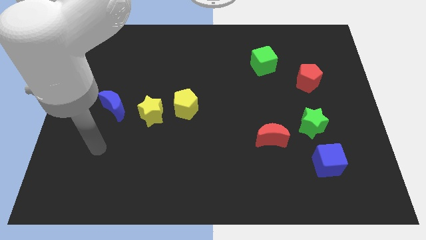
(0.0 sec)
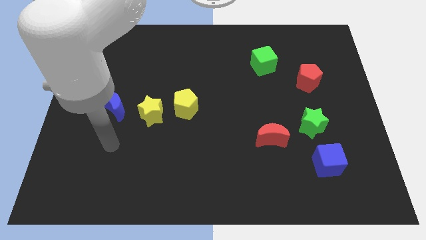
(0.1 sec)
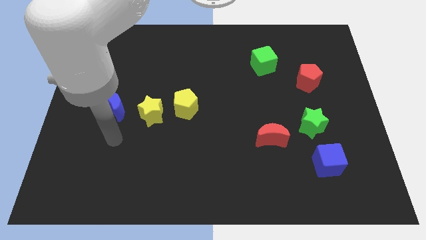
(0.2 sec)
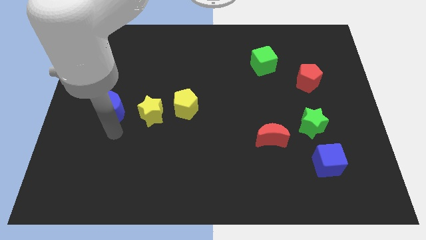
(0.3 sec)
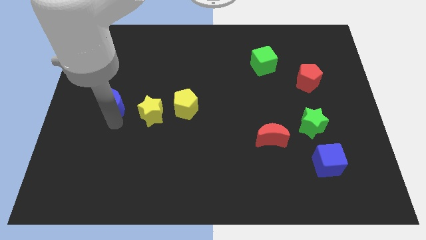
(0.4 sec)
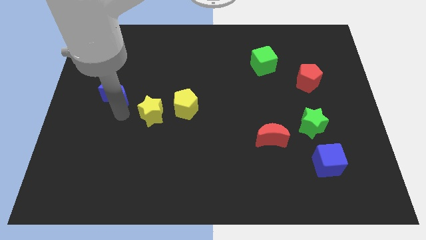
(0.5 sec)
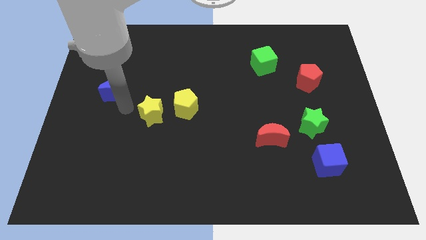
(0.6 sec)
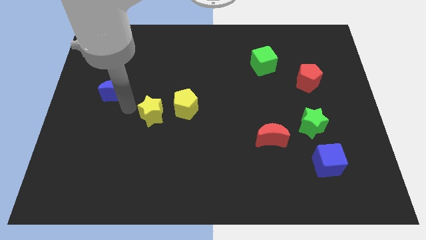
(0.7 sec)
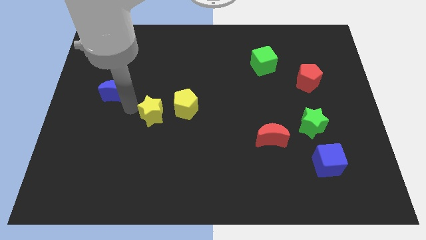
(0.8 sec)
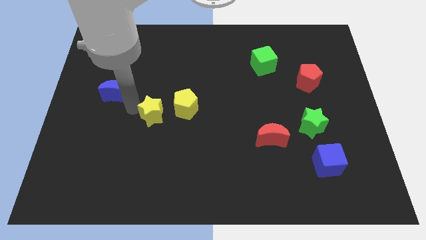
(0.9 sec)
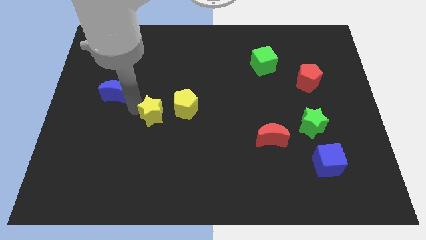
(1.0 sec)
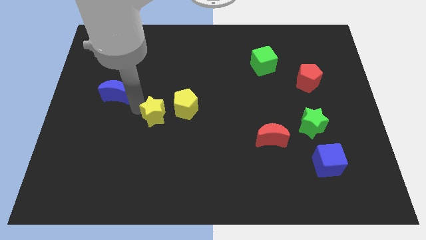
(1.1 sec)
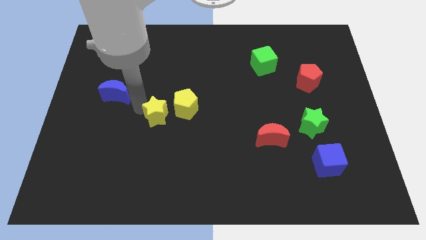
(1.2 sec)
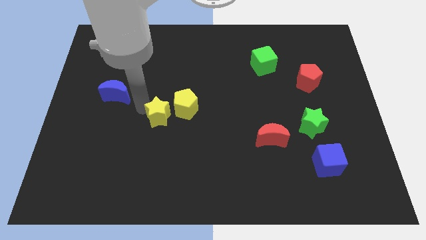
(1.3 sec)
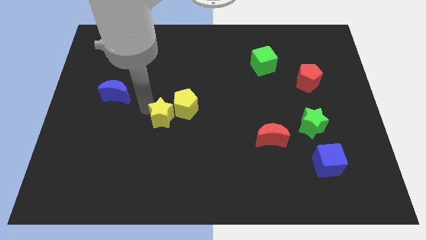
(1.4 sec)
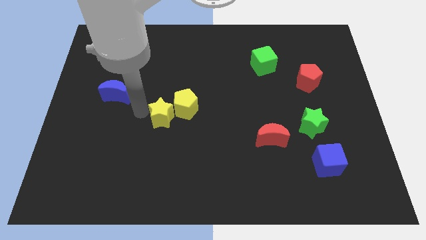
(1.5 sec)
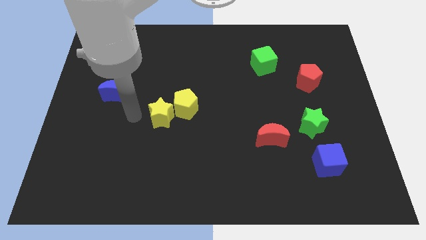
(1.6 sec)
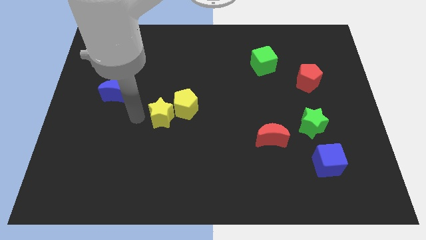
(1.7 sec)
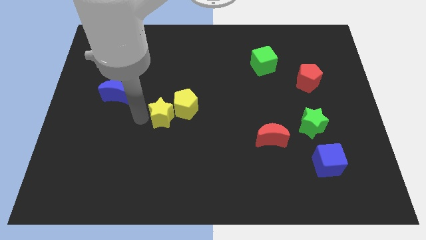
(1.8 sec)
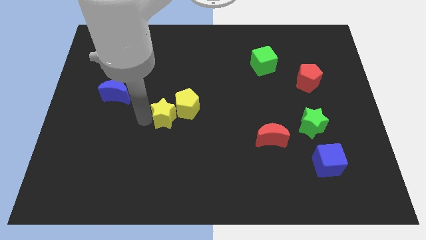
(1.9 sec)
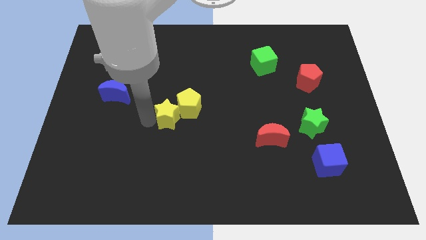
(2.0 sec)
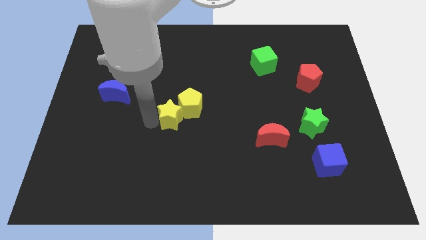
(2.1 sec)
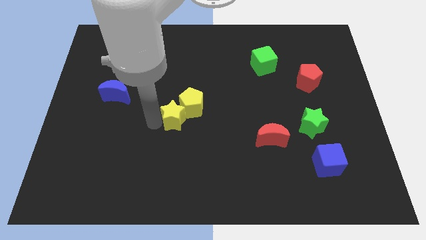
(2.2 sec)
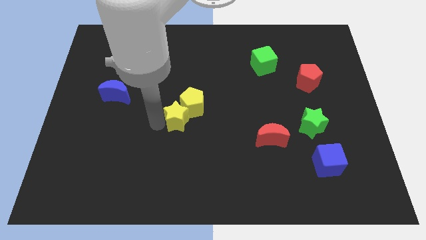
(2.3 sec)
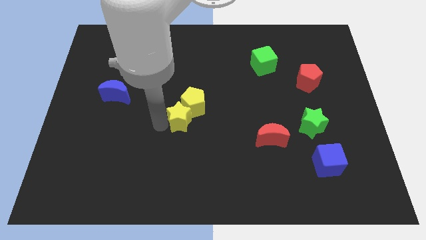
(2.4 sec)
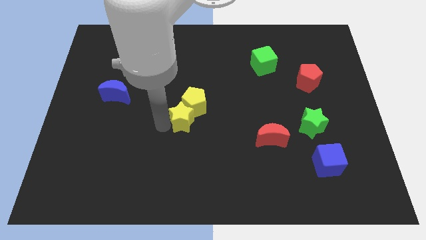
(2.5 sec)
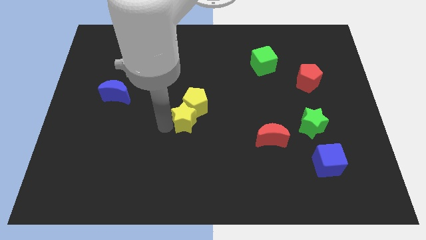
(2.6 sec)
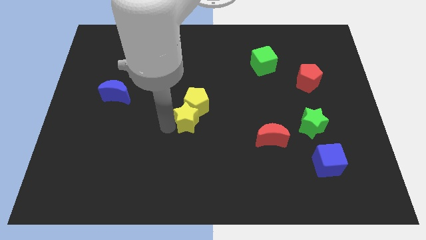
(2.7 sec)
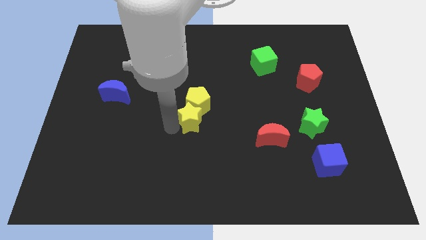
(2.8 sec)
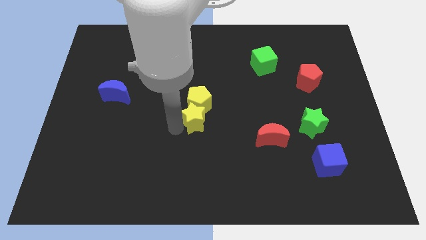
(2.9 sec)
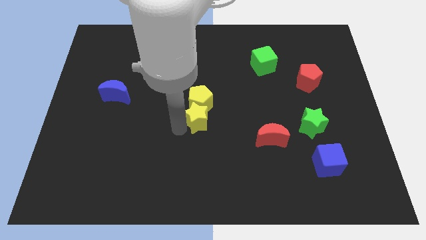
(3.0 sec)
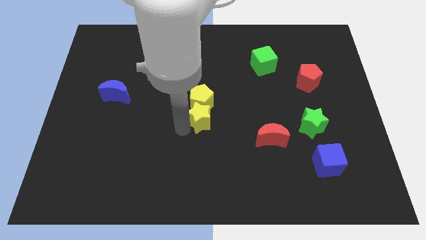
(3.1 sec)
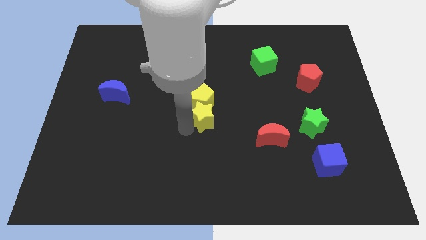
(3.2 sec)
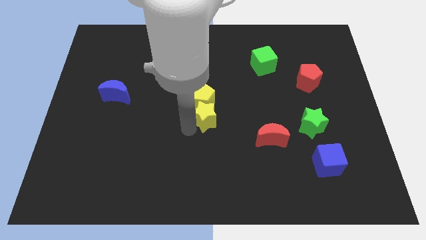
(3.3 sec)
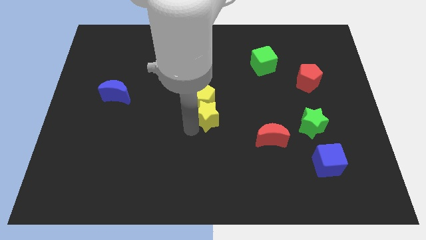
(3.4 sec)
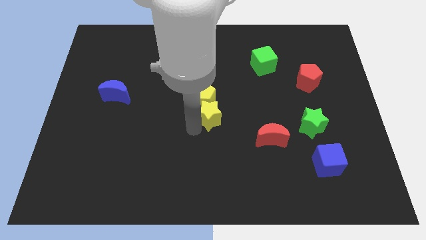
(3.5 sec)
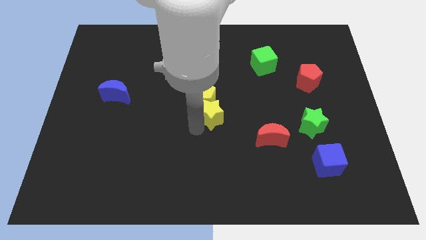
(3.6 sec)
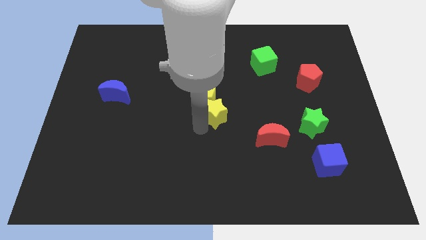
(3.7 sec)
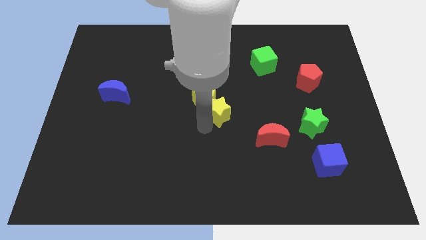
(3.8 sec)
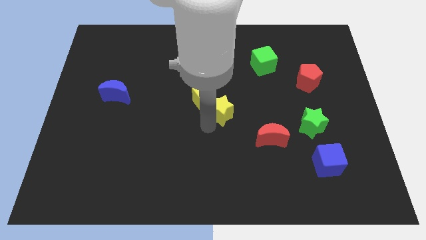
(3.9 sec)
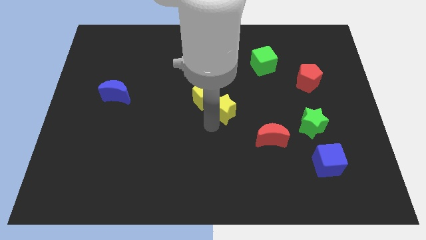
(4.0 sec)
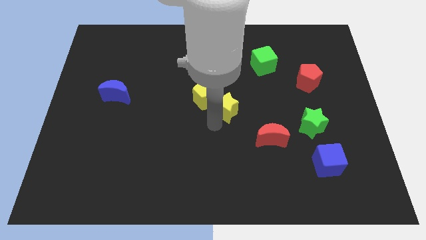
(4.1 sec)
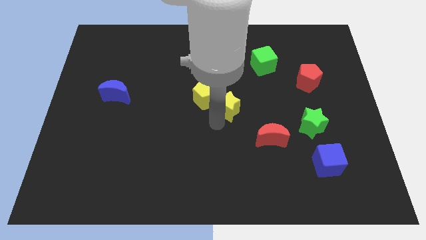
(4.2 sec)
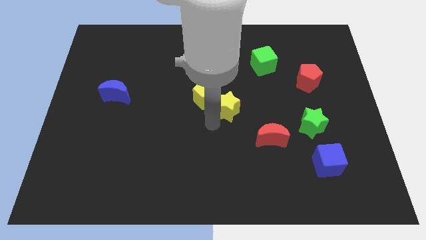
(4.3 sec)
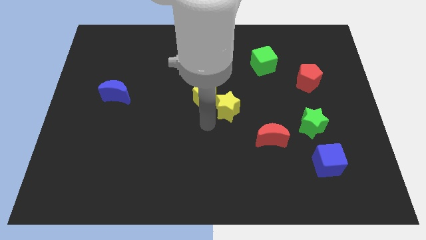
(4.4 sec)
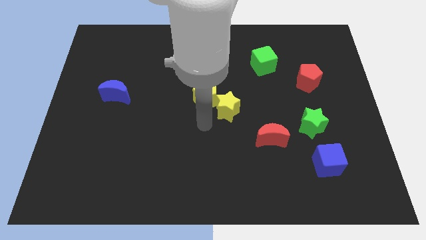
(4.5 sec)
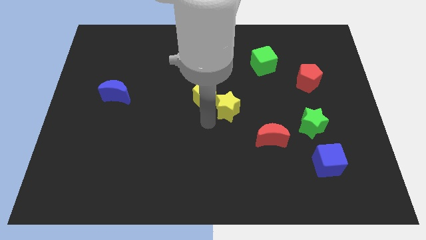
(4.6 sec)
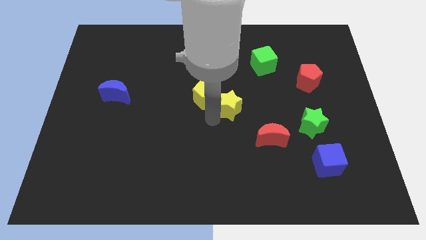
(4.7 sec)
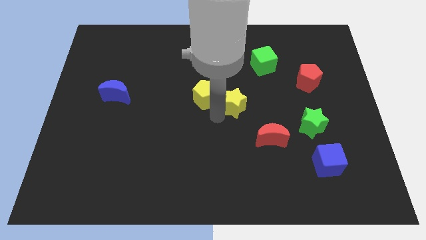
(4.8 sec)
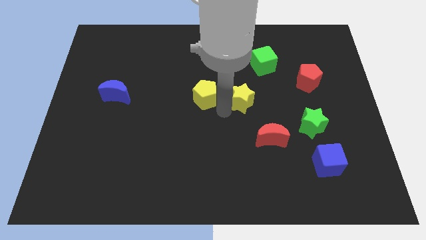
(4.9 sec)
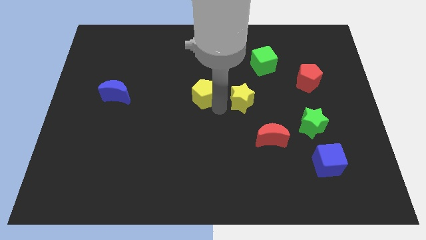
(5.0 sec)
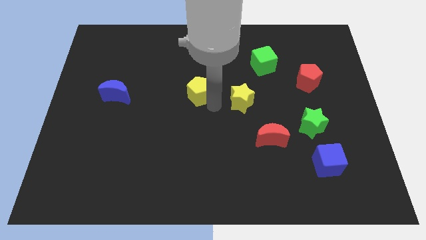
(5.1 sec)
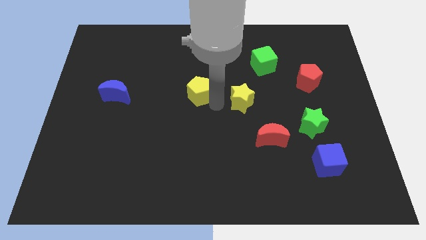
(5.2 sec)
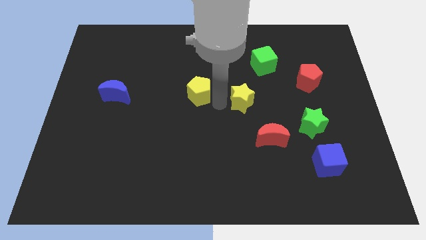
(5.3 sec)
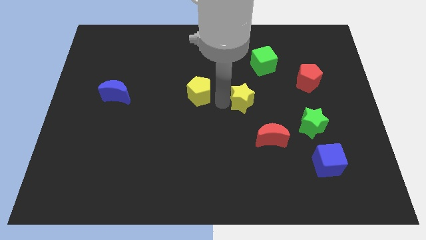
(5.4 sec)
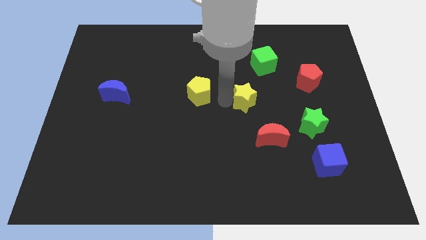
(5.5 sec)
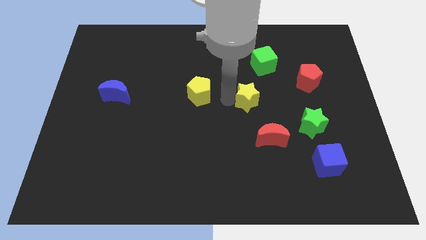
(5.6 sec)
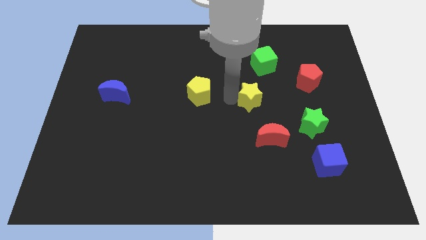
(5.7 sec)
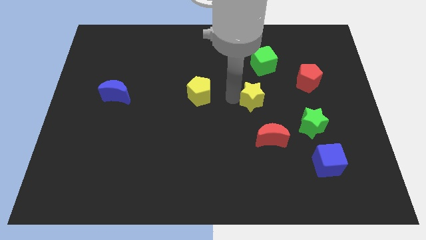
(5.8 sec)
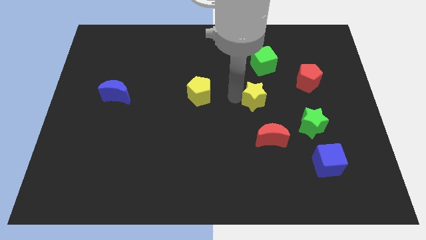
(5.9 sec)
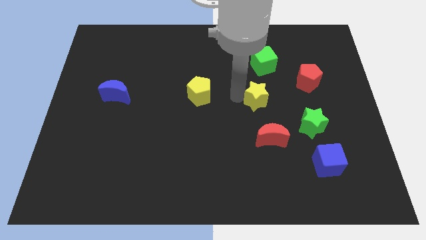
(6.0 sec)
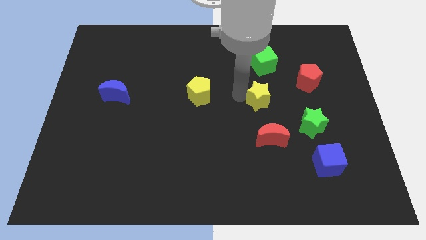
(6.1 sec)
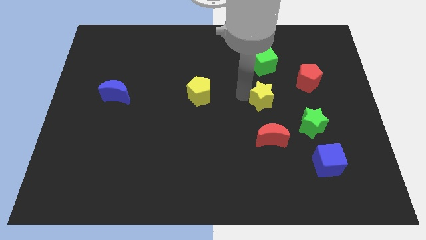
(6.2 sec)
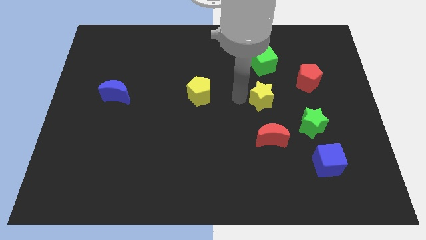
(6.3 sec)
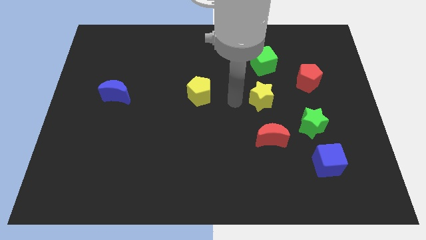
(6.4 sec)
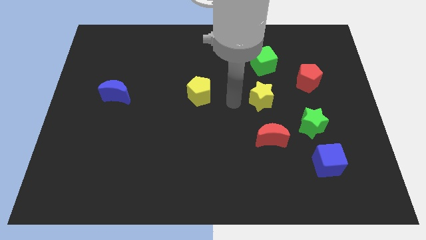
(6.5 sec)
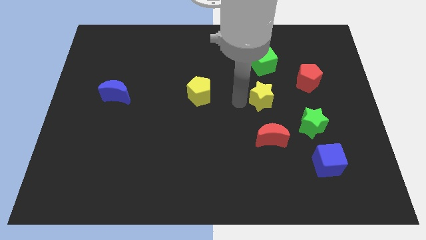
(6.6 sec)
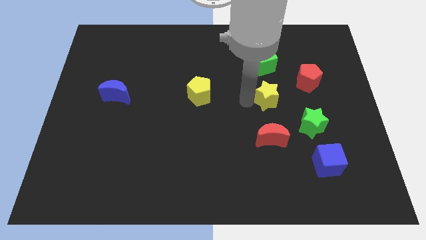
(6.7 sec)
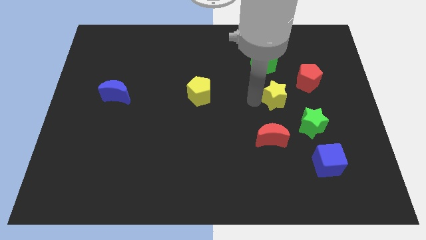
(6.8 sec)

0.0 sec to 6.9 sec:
slide the yellow star diagonally down and to the left of the red pentagon
